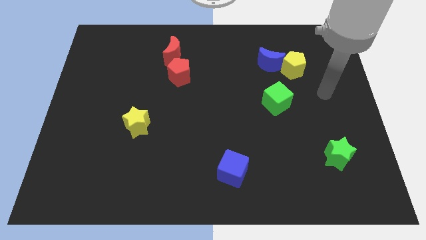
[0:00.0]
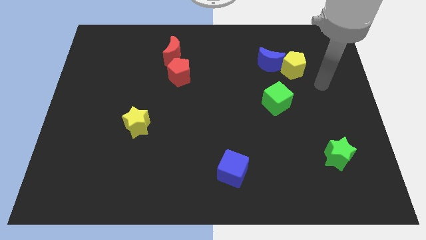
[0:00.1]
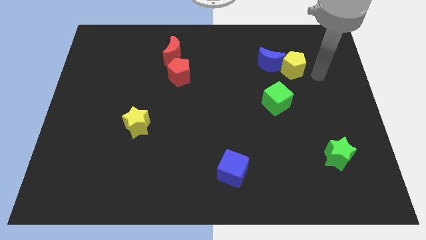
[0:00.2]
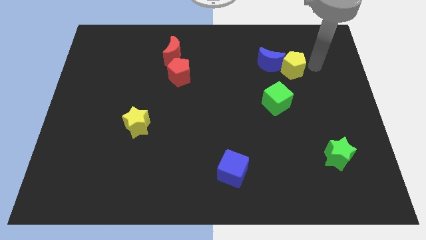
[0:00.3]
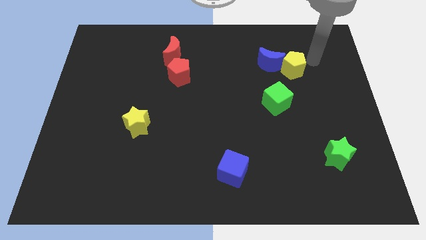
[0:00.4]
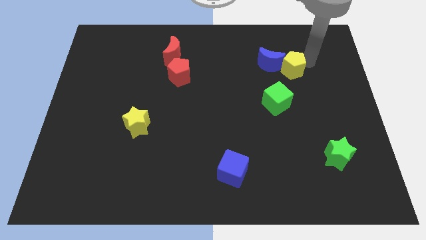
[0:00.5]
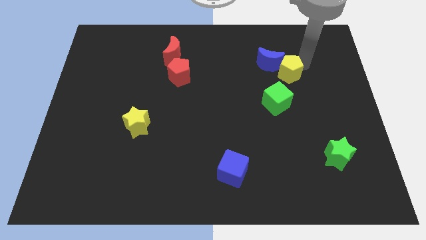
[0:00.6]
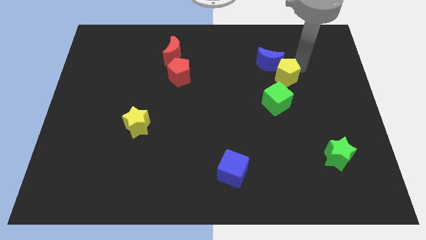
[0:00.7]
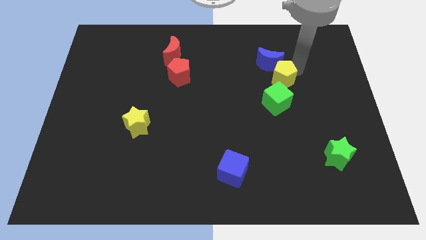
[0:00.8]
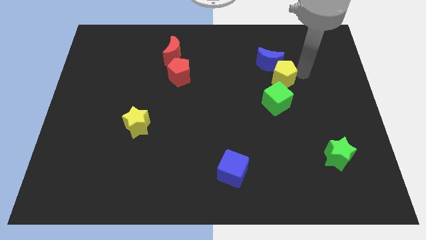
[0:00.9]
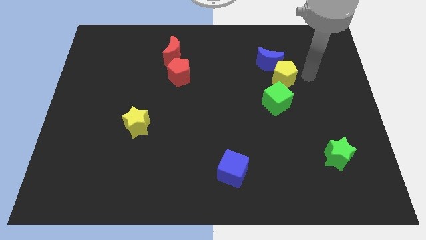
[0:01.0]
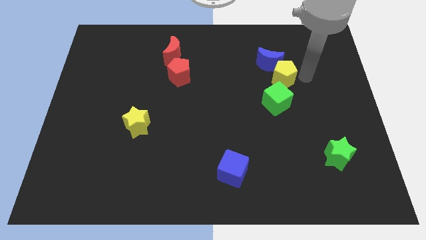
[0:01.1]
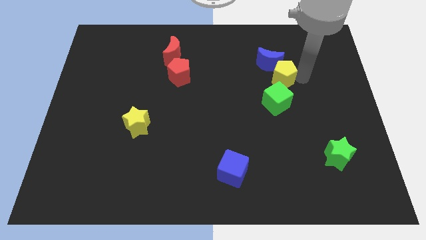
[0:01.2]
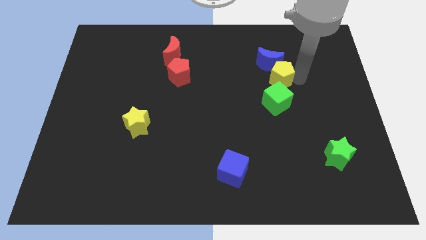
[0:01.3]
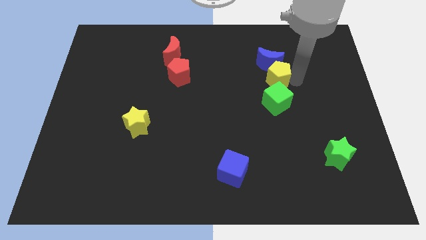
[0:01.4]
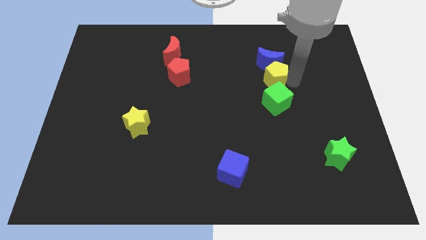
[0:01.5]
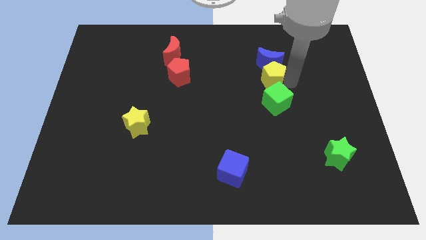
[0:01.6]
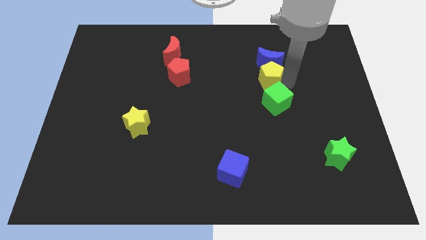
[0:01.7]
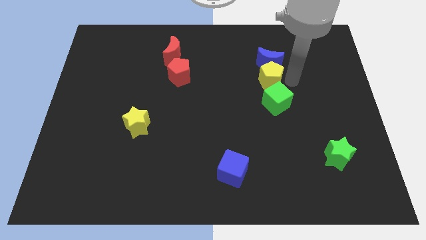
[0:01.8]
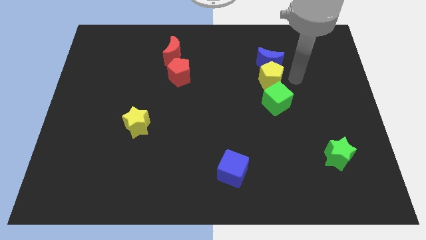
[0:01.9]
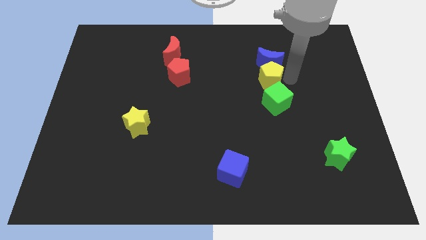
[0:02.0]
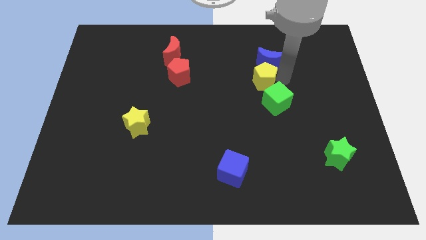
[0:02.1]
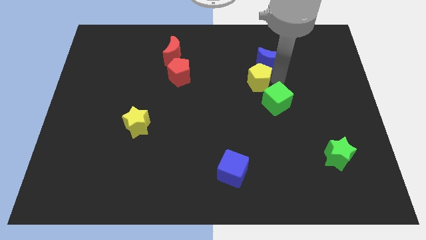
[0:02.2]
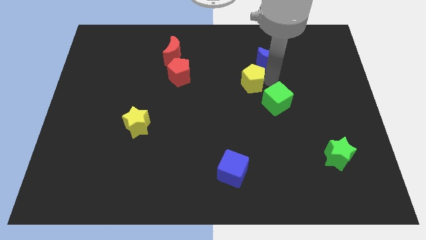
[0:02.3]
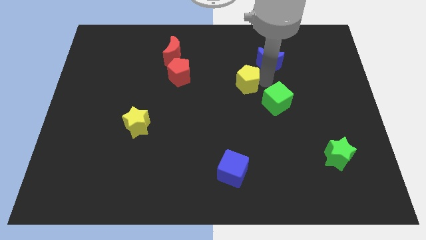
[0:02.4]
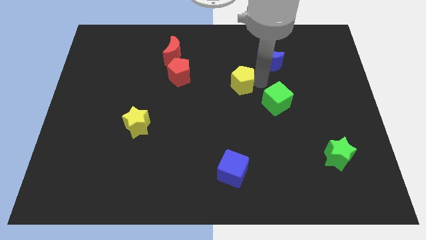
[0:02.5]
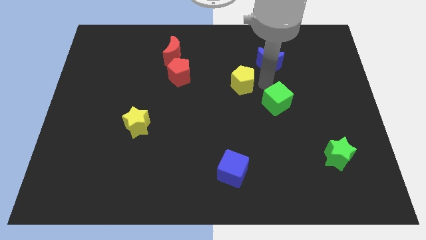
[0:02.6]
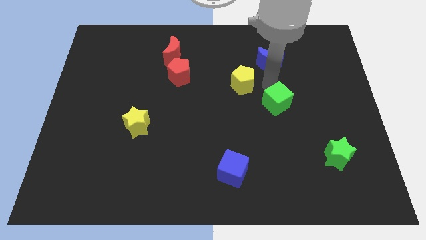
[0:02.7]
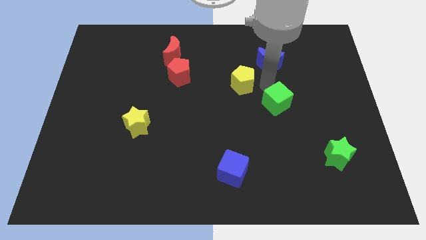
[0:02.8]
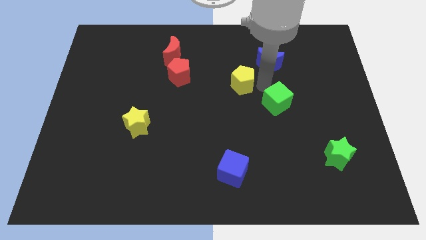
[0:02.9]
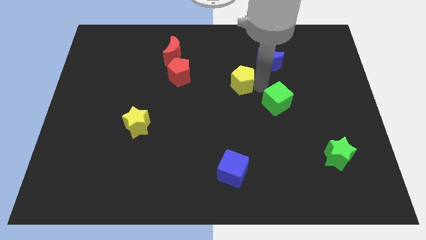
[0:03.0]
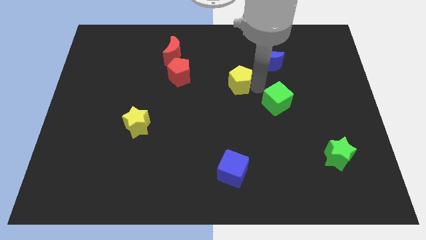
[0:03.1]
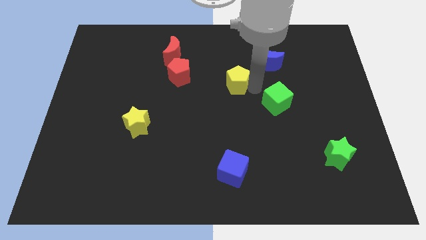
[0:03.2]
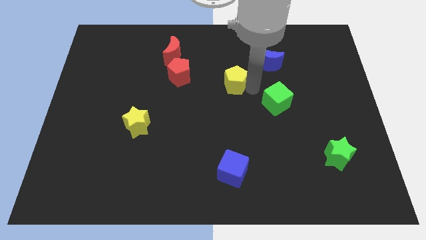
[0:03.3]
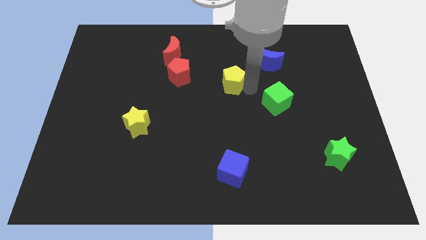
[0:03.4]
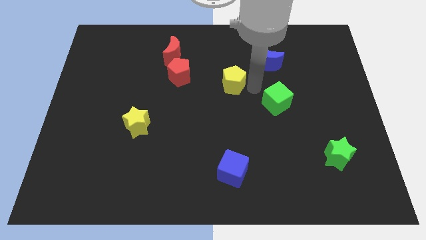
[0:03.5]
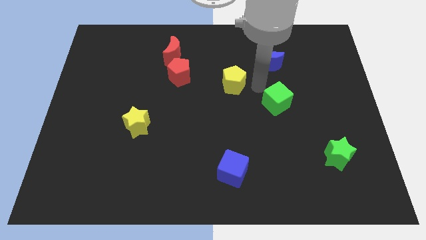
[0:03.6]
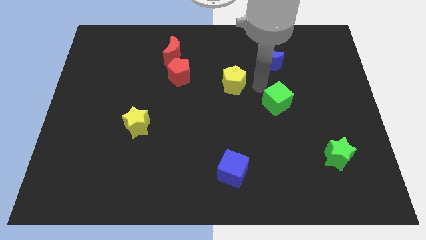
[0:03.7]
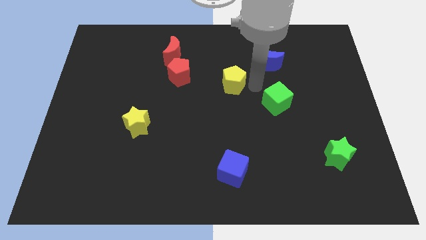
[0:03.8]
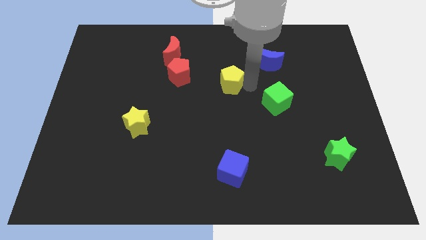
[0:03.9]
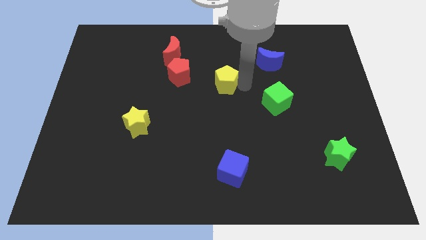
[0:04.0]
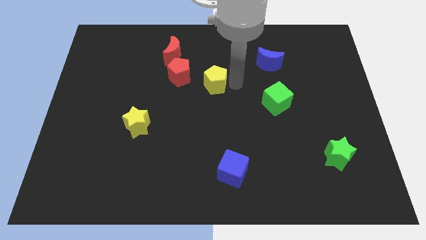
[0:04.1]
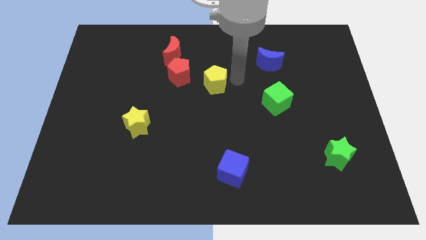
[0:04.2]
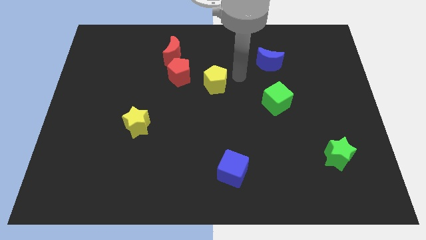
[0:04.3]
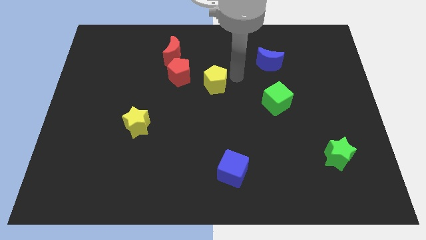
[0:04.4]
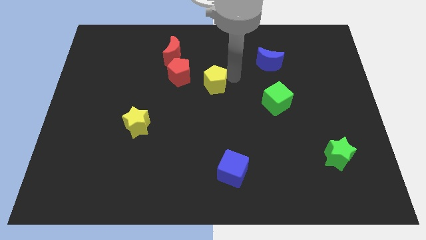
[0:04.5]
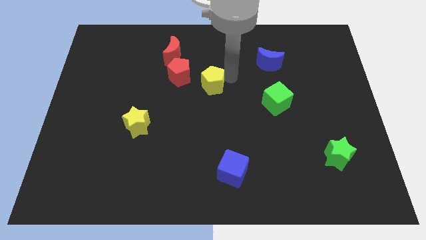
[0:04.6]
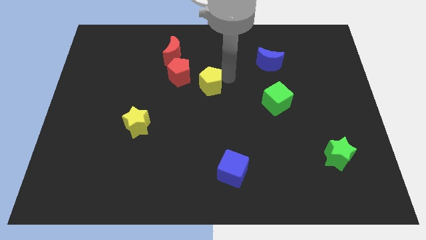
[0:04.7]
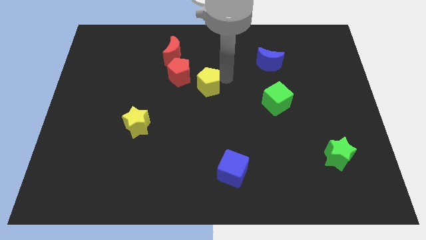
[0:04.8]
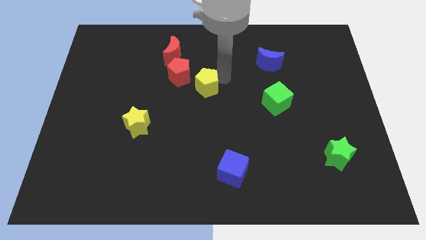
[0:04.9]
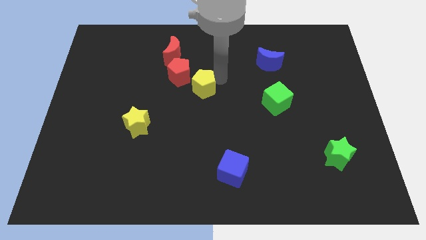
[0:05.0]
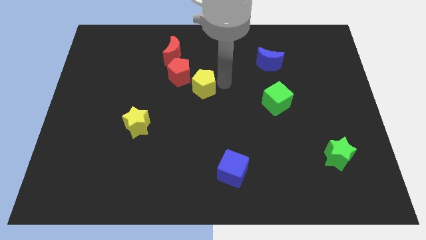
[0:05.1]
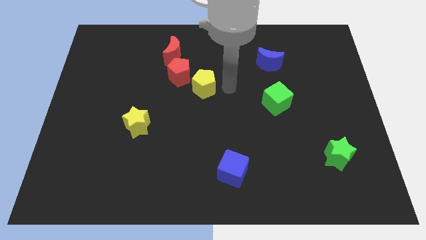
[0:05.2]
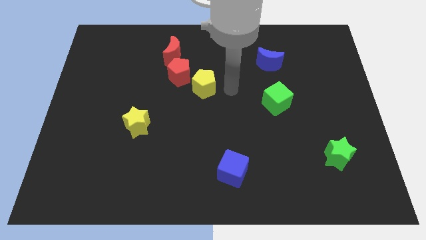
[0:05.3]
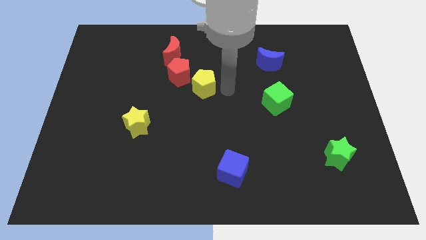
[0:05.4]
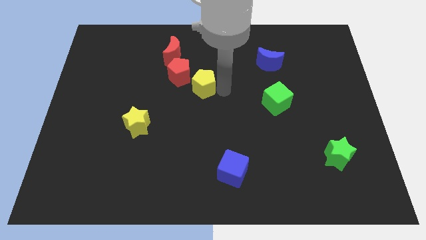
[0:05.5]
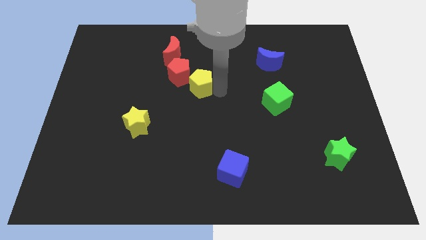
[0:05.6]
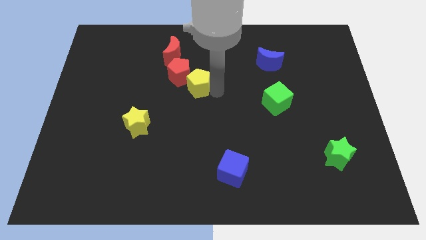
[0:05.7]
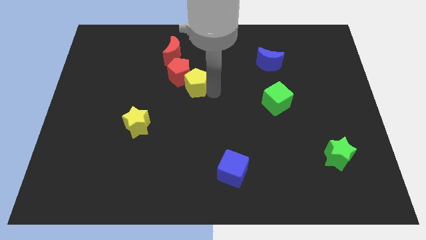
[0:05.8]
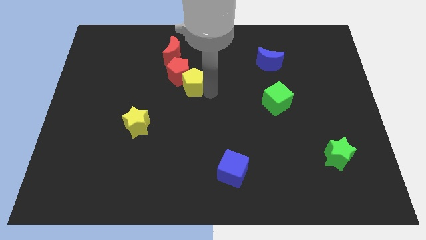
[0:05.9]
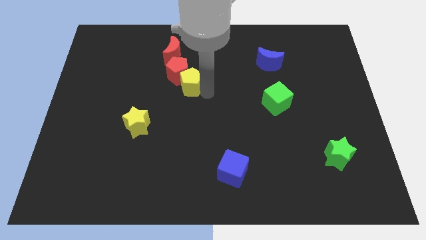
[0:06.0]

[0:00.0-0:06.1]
push the yellow pentagon to the bottom side of the red moon

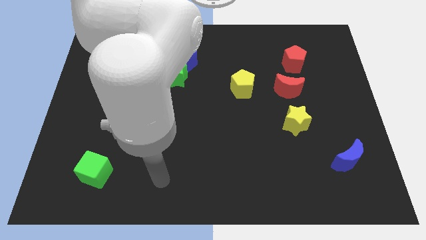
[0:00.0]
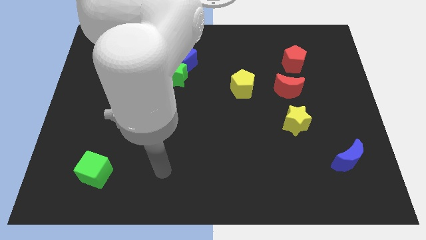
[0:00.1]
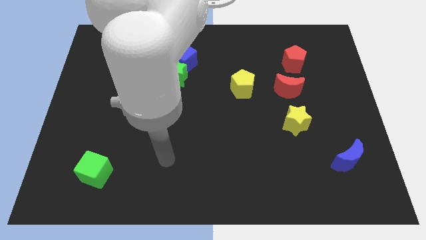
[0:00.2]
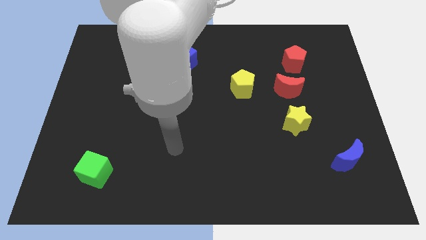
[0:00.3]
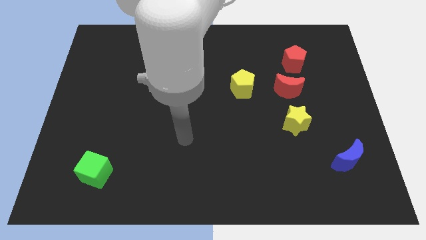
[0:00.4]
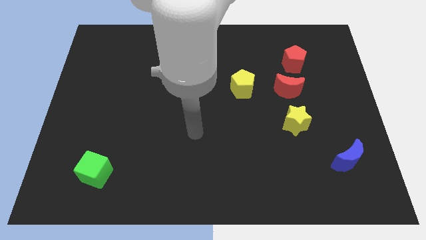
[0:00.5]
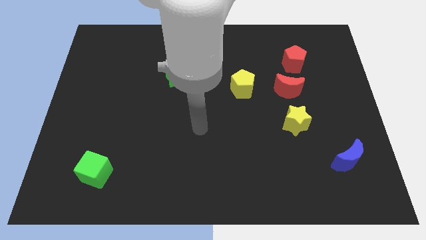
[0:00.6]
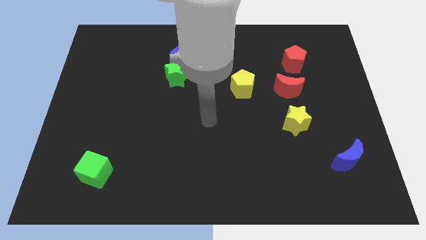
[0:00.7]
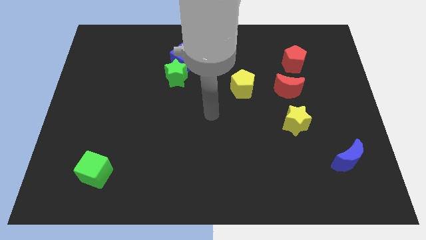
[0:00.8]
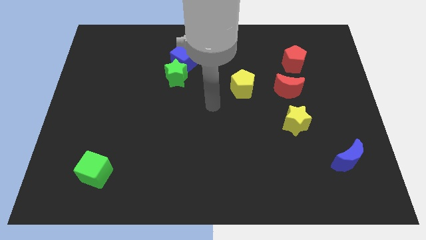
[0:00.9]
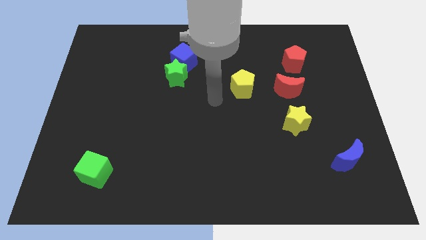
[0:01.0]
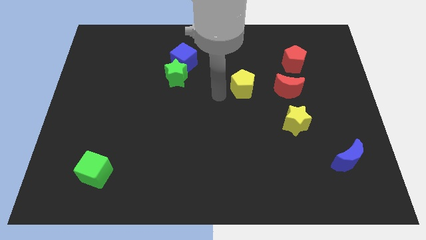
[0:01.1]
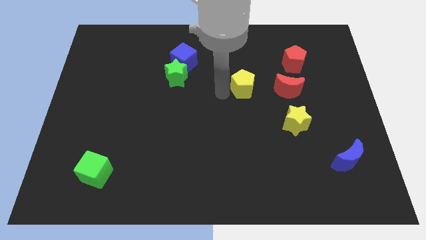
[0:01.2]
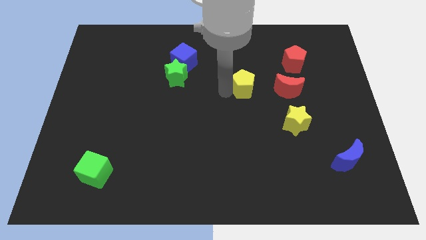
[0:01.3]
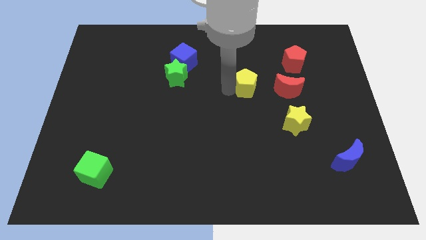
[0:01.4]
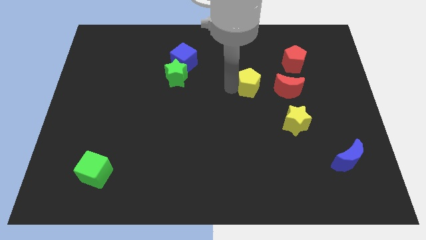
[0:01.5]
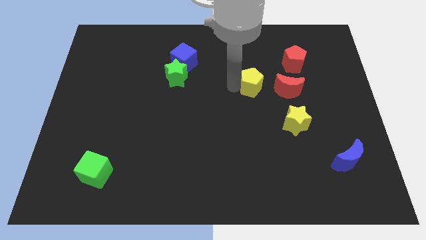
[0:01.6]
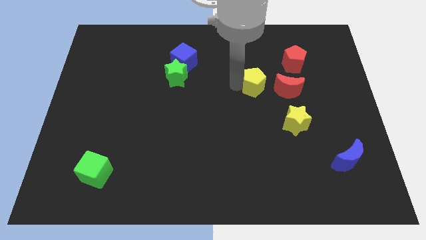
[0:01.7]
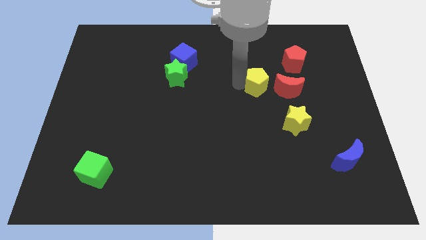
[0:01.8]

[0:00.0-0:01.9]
push the yellow pentagon to the bottom left of the red pentagon
